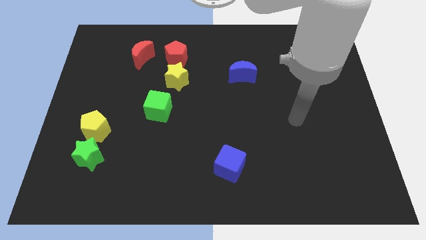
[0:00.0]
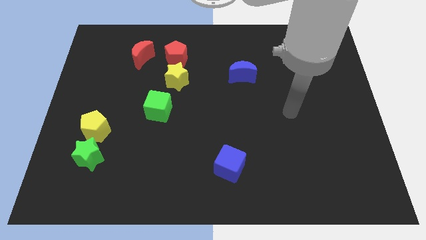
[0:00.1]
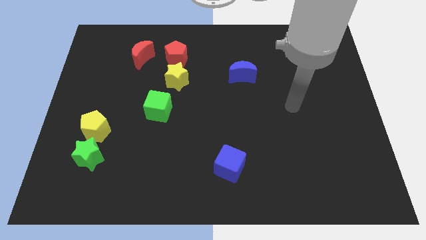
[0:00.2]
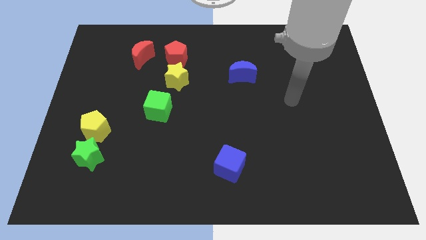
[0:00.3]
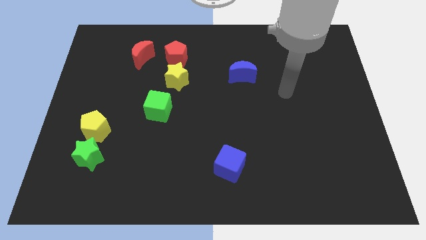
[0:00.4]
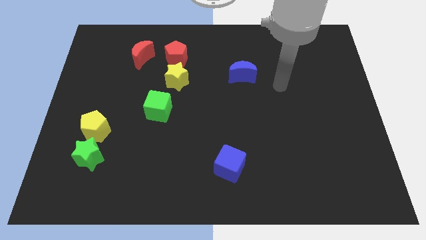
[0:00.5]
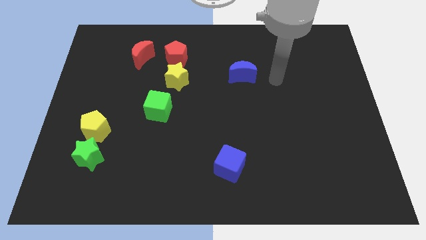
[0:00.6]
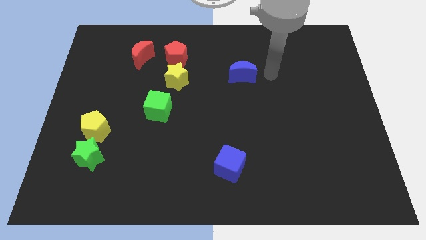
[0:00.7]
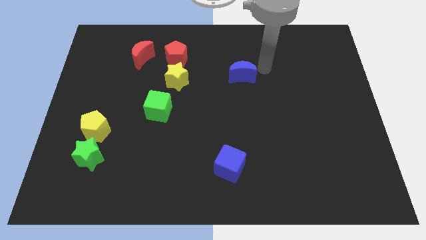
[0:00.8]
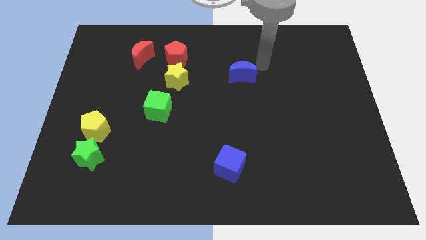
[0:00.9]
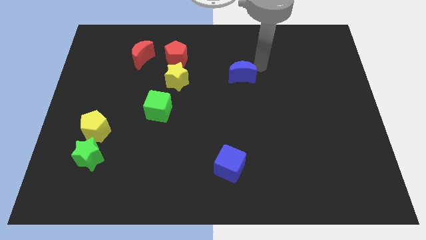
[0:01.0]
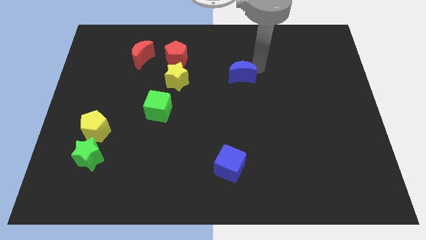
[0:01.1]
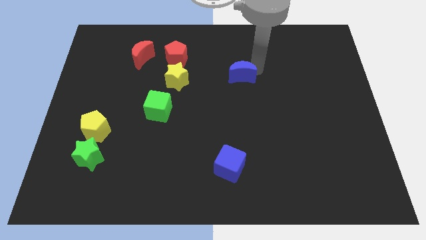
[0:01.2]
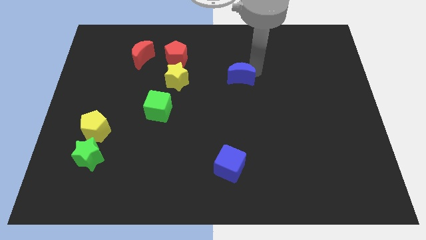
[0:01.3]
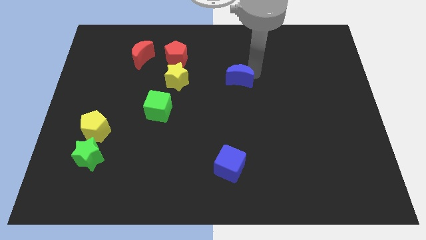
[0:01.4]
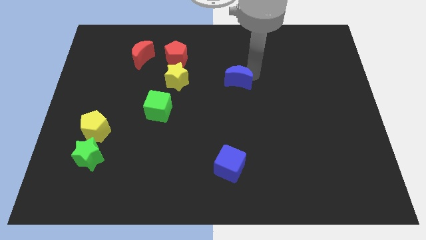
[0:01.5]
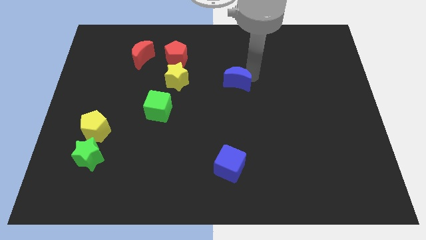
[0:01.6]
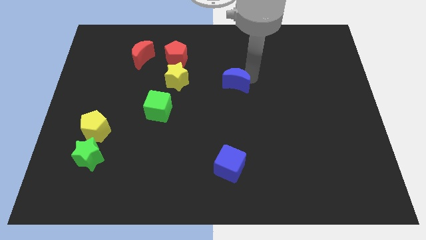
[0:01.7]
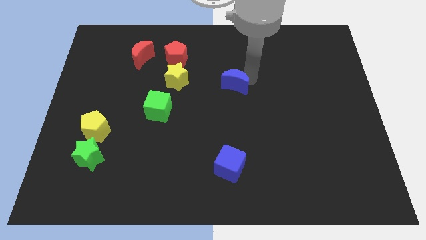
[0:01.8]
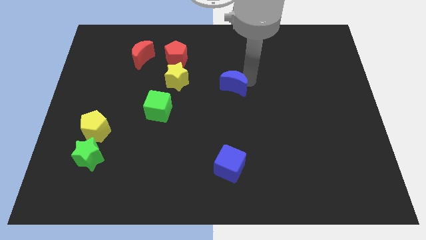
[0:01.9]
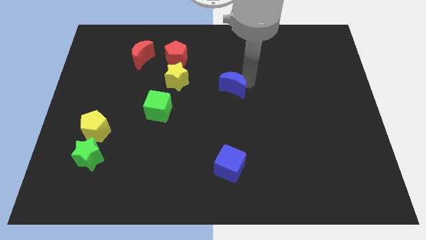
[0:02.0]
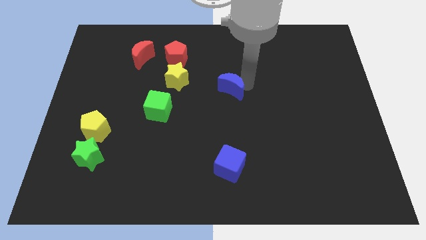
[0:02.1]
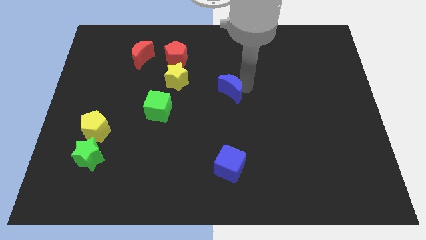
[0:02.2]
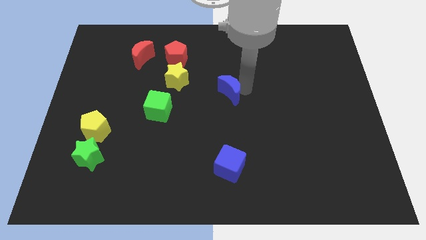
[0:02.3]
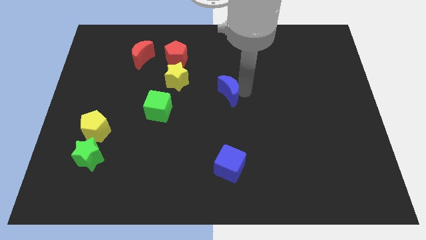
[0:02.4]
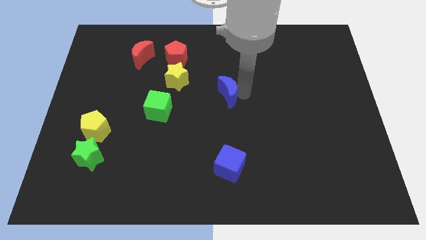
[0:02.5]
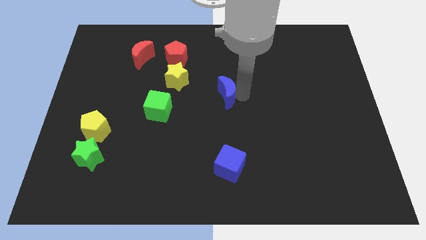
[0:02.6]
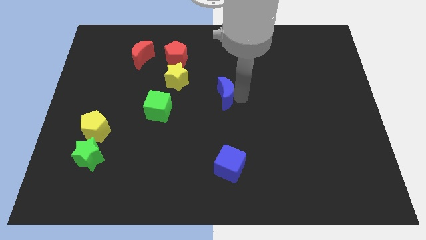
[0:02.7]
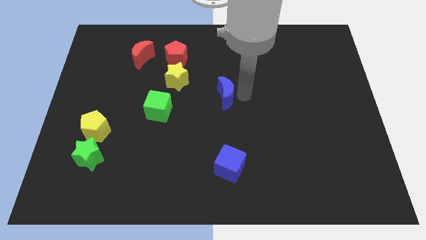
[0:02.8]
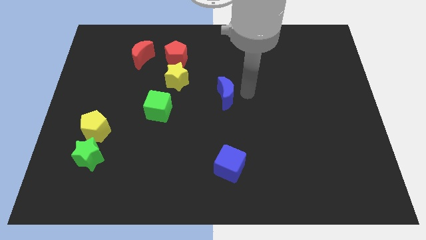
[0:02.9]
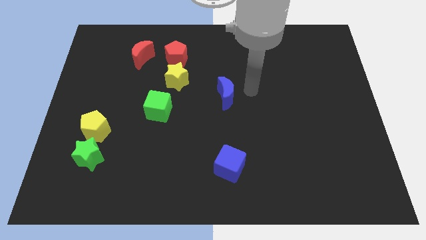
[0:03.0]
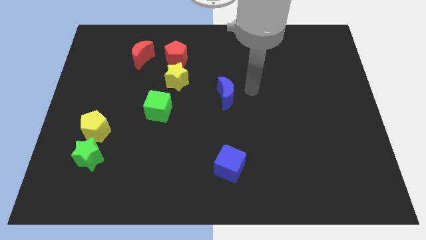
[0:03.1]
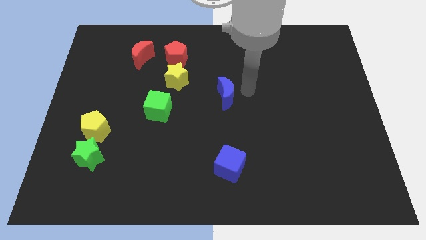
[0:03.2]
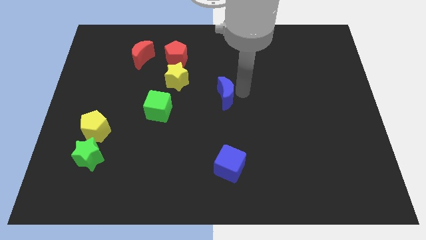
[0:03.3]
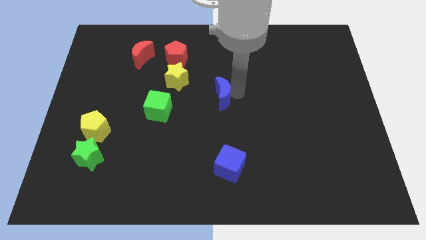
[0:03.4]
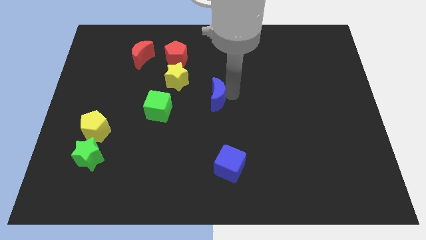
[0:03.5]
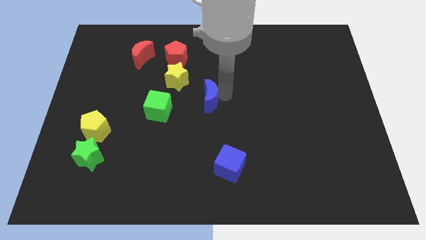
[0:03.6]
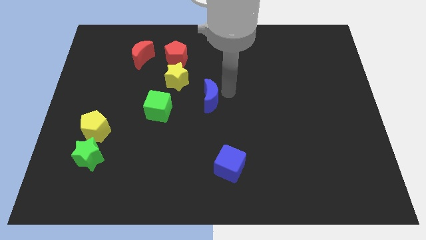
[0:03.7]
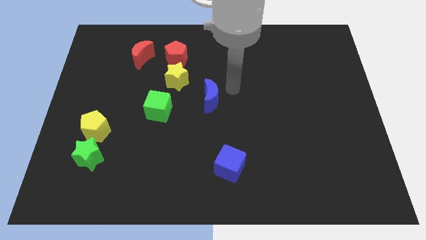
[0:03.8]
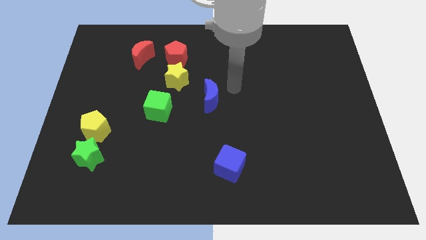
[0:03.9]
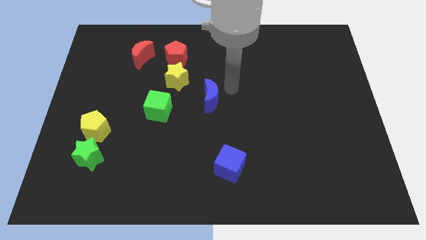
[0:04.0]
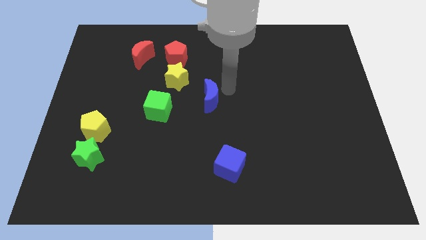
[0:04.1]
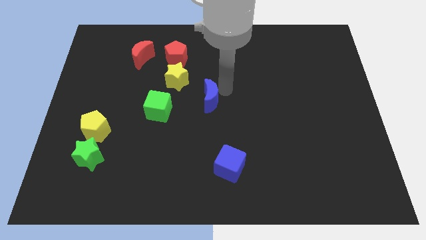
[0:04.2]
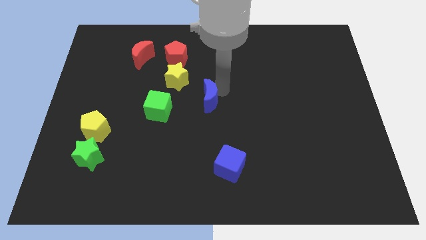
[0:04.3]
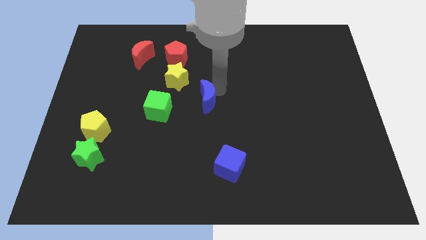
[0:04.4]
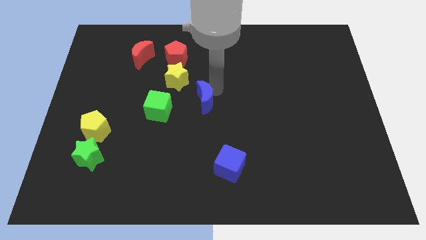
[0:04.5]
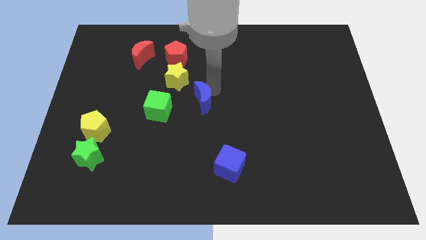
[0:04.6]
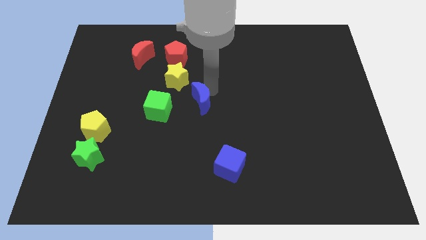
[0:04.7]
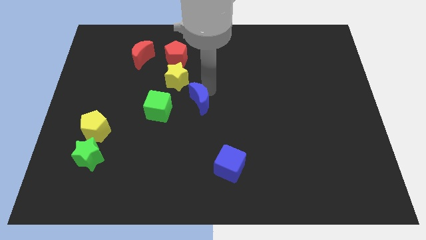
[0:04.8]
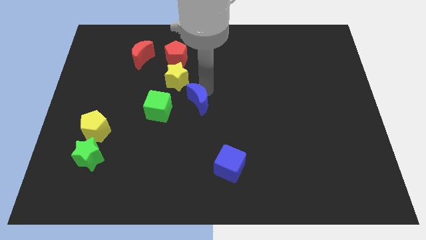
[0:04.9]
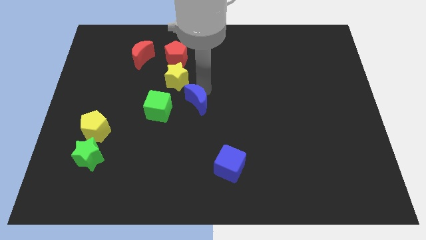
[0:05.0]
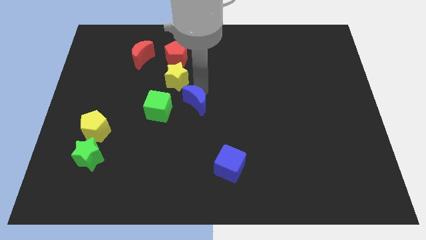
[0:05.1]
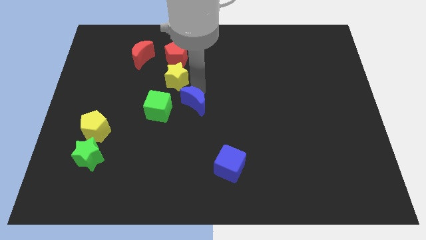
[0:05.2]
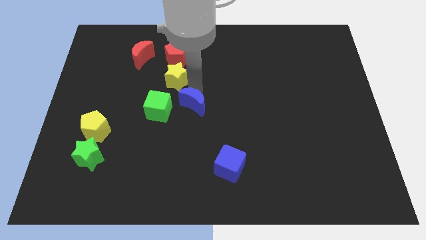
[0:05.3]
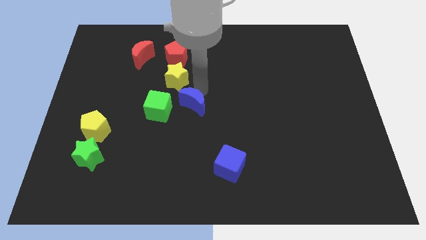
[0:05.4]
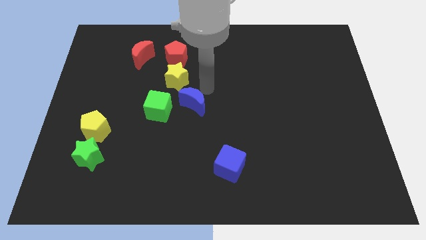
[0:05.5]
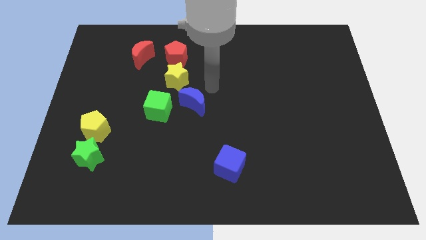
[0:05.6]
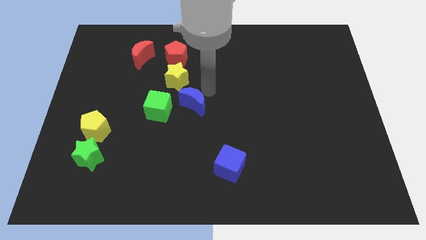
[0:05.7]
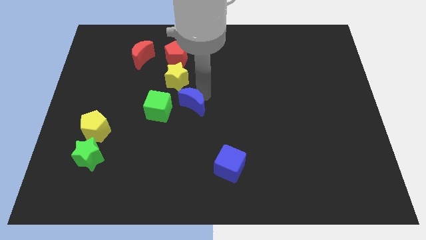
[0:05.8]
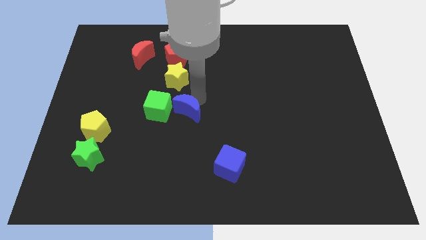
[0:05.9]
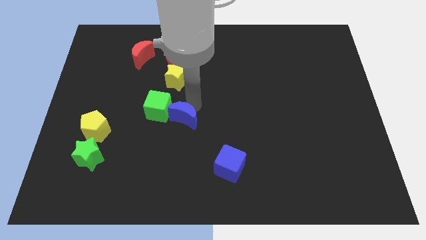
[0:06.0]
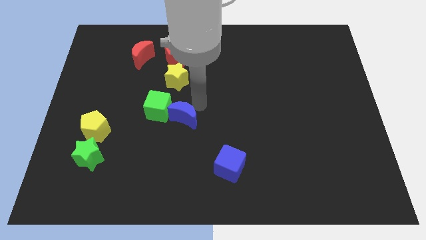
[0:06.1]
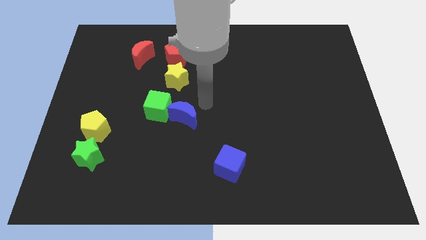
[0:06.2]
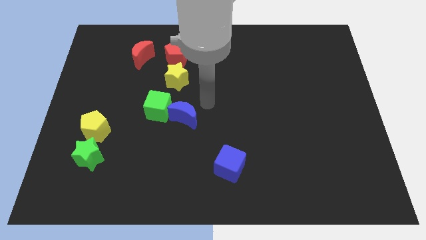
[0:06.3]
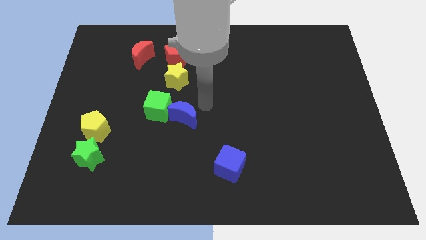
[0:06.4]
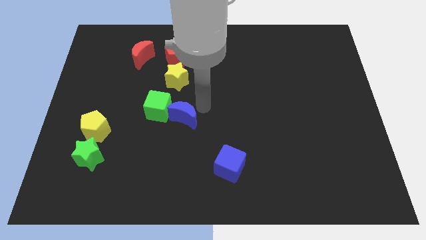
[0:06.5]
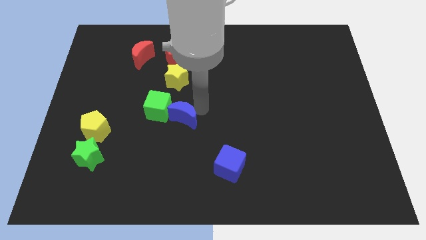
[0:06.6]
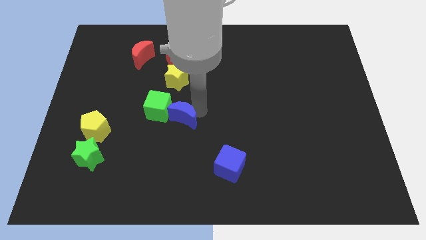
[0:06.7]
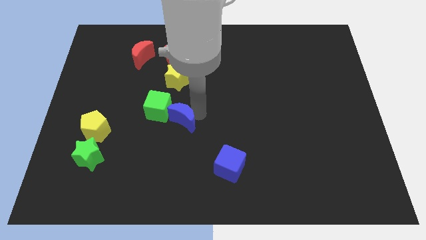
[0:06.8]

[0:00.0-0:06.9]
push the blue moon diagonally downwards and left

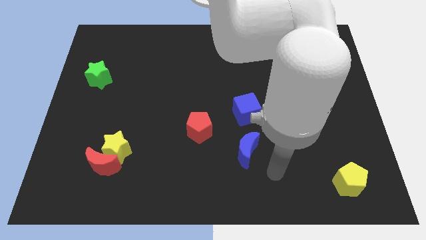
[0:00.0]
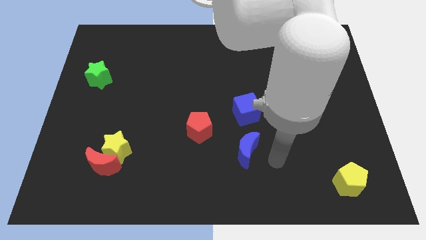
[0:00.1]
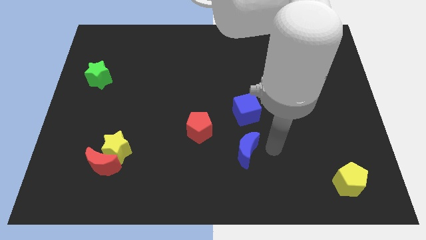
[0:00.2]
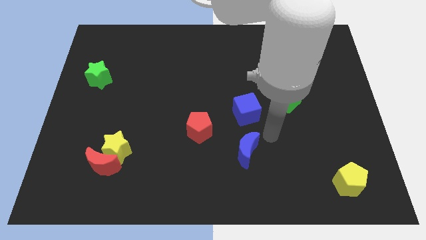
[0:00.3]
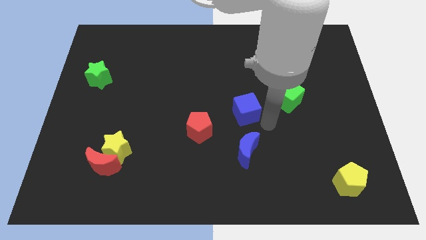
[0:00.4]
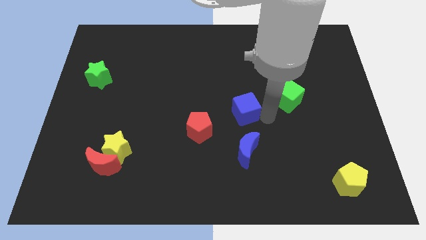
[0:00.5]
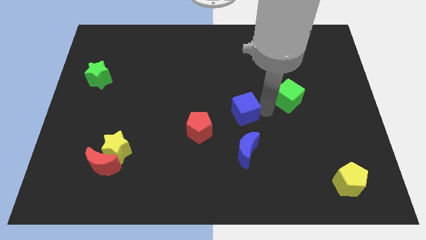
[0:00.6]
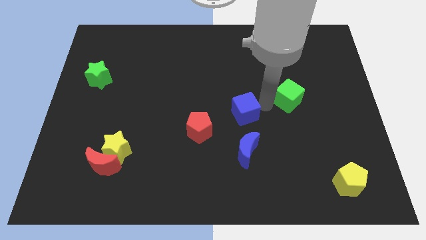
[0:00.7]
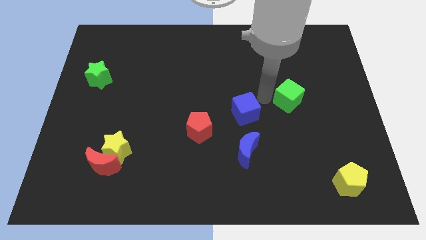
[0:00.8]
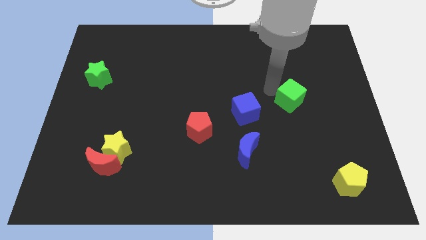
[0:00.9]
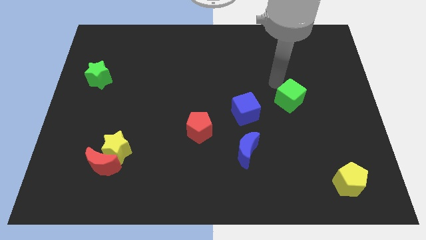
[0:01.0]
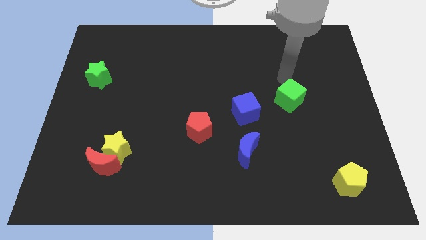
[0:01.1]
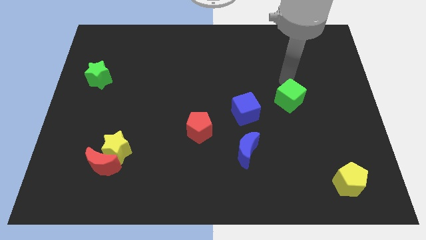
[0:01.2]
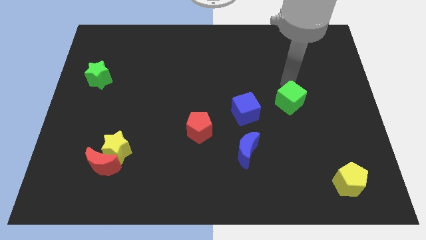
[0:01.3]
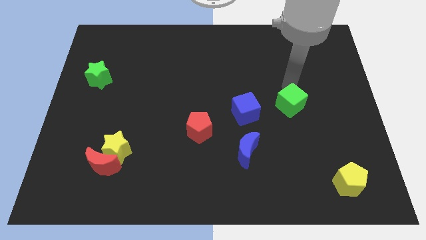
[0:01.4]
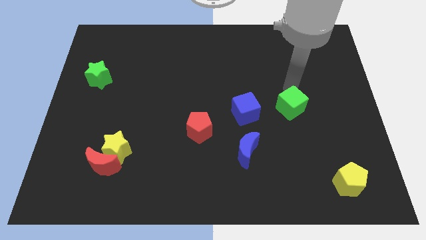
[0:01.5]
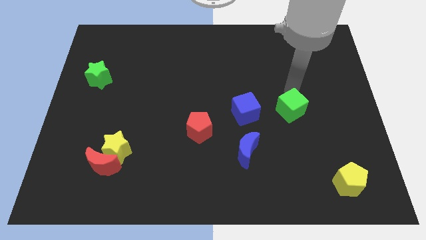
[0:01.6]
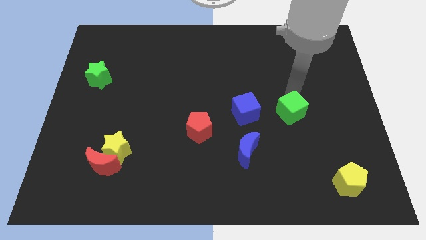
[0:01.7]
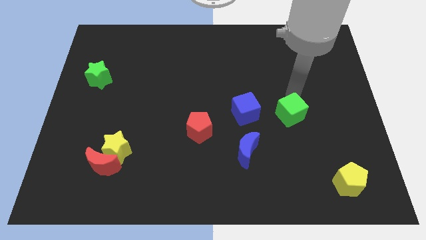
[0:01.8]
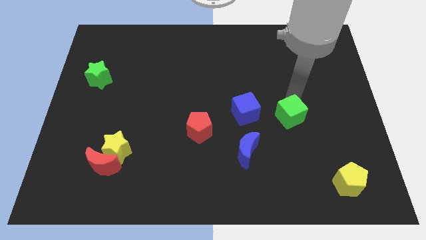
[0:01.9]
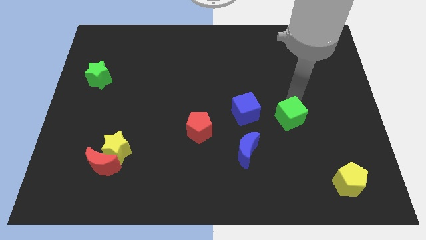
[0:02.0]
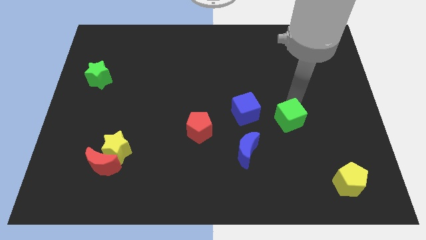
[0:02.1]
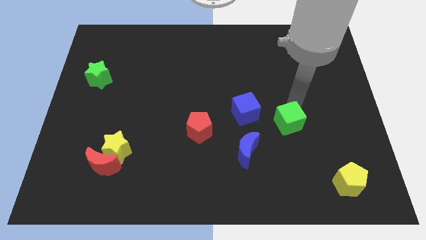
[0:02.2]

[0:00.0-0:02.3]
move the green cube a little downwards
